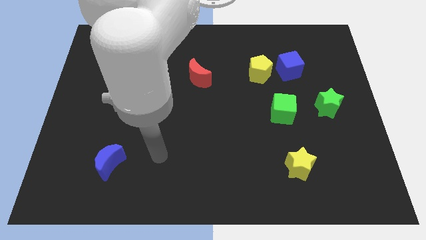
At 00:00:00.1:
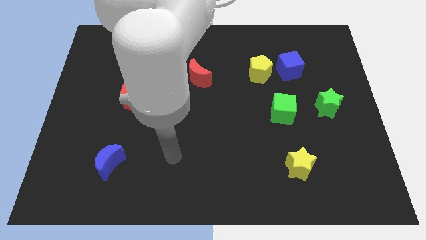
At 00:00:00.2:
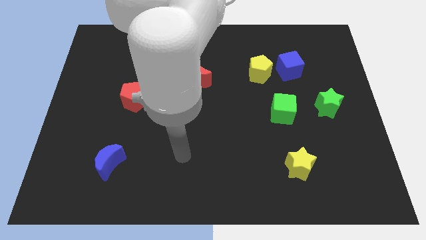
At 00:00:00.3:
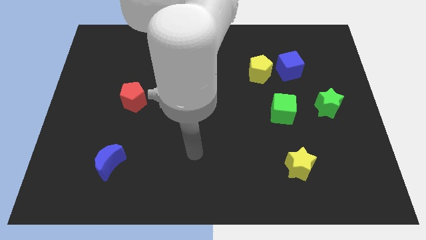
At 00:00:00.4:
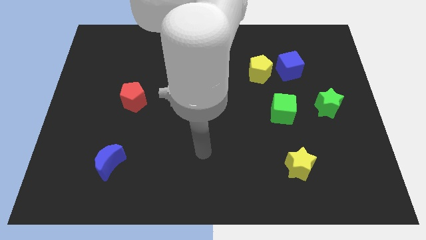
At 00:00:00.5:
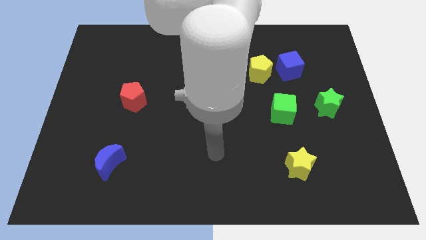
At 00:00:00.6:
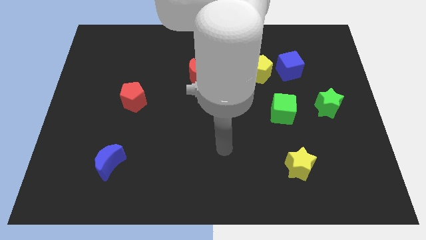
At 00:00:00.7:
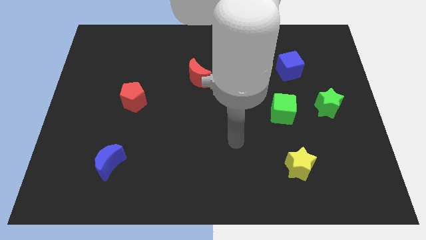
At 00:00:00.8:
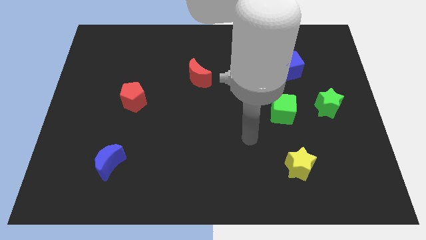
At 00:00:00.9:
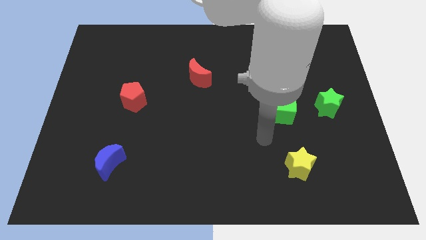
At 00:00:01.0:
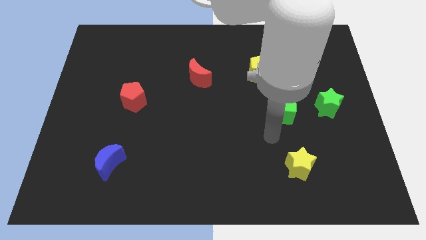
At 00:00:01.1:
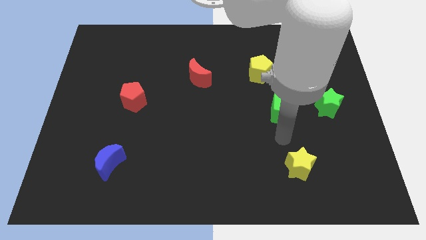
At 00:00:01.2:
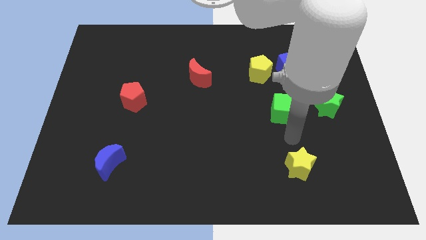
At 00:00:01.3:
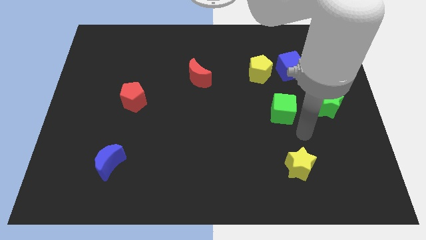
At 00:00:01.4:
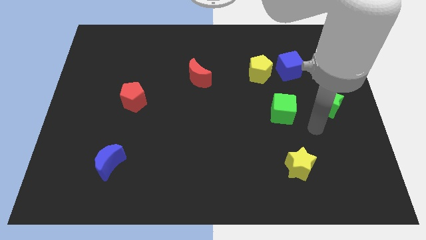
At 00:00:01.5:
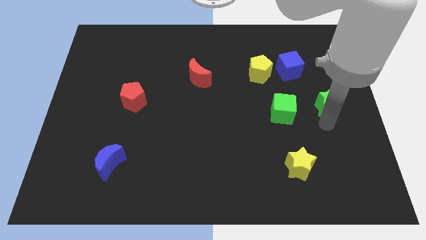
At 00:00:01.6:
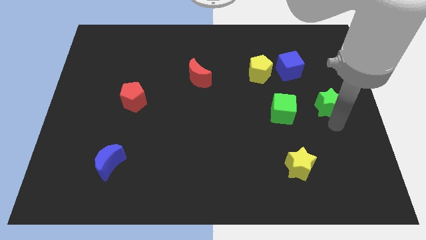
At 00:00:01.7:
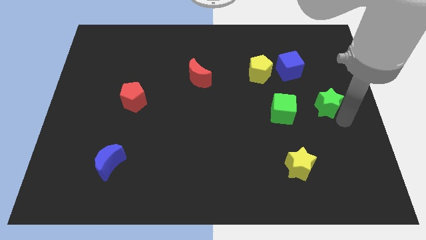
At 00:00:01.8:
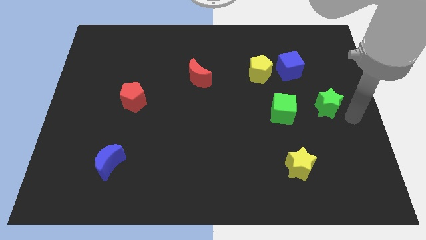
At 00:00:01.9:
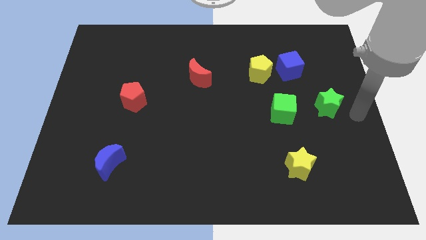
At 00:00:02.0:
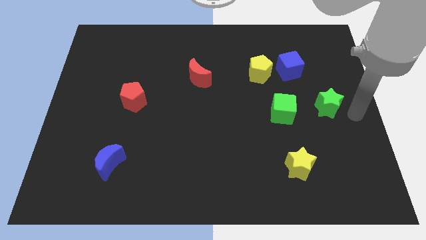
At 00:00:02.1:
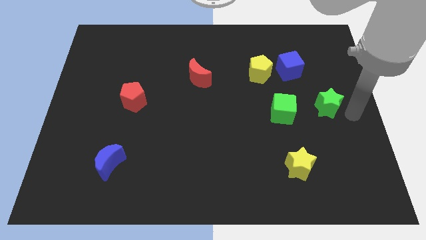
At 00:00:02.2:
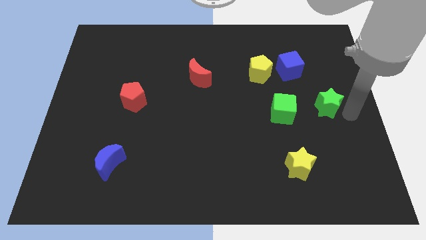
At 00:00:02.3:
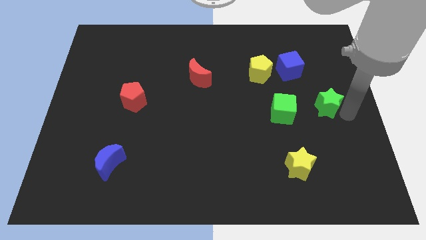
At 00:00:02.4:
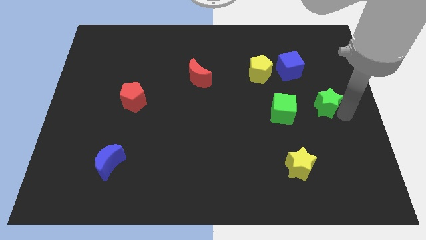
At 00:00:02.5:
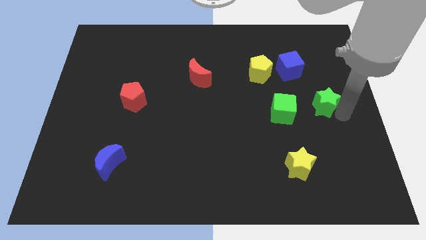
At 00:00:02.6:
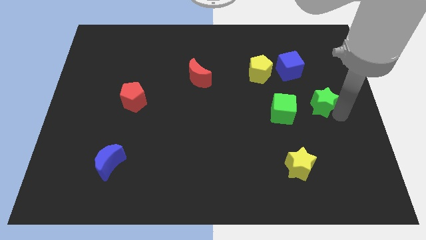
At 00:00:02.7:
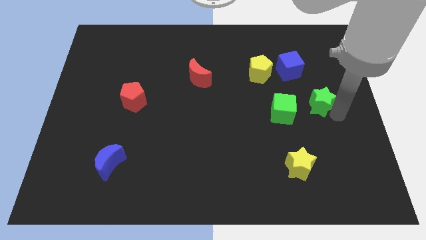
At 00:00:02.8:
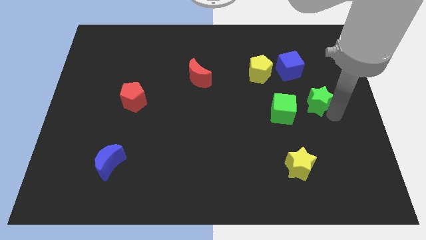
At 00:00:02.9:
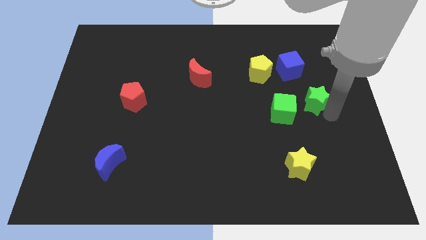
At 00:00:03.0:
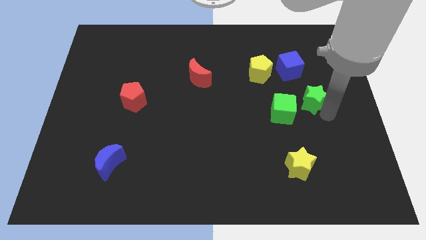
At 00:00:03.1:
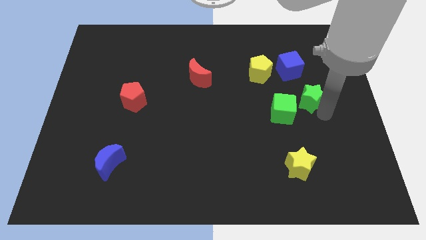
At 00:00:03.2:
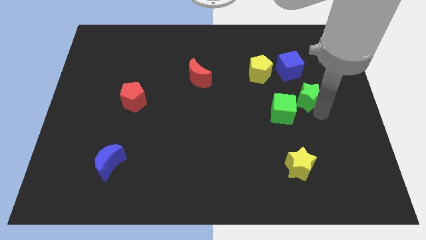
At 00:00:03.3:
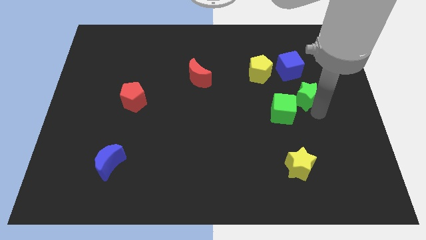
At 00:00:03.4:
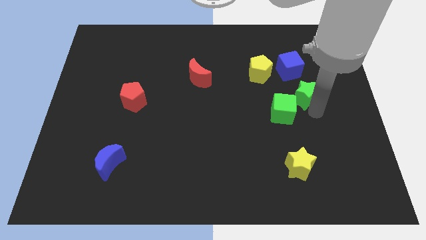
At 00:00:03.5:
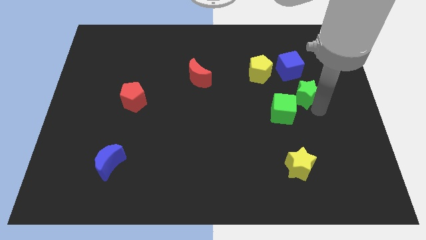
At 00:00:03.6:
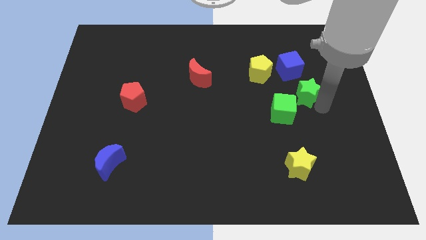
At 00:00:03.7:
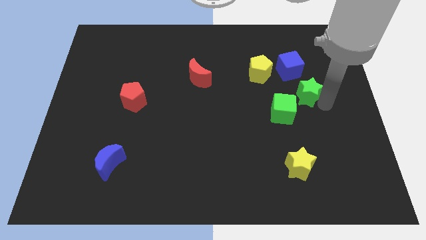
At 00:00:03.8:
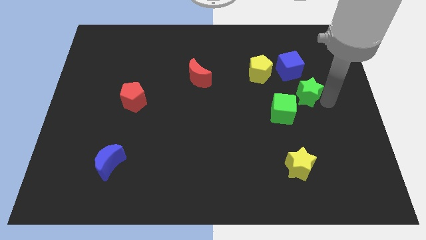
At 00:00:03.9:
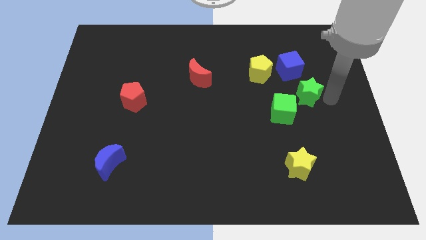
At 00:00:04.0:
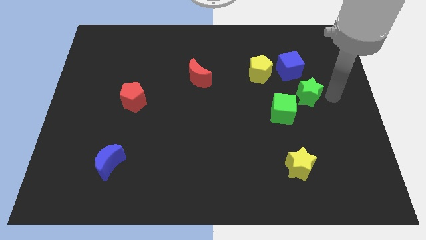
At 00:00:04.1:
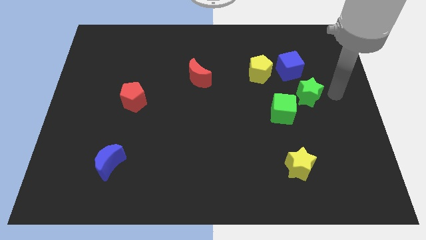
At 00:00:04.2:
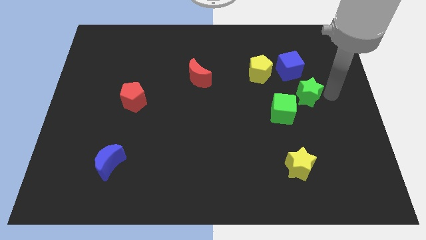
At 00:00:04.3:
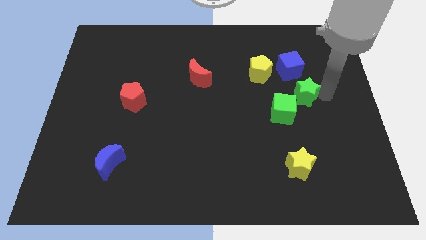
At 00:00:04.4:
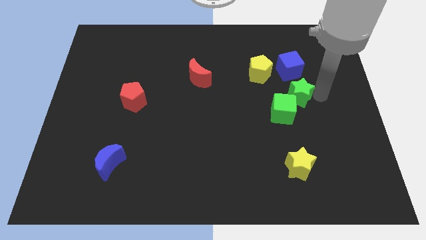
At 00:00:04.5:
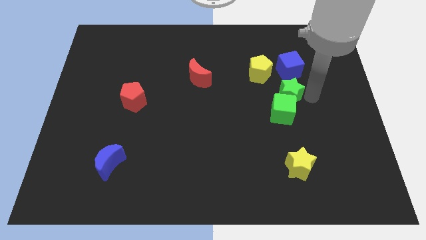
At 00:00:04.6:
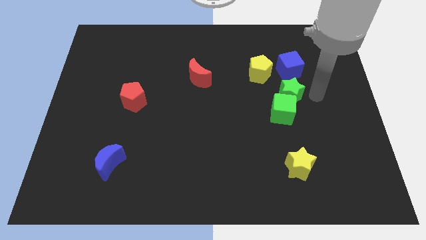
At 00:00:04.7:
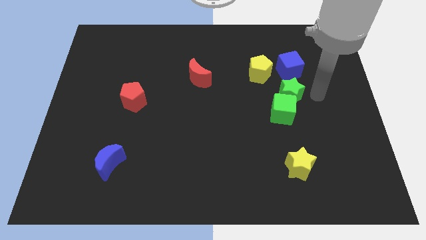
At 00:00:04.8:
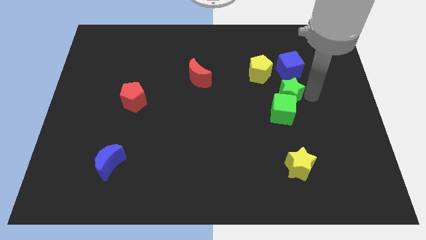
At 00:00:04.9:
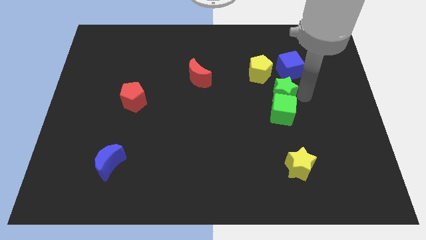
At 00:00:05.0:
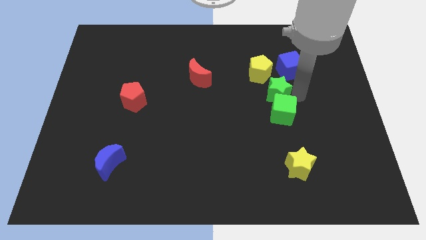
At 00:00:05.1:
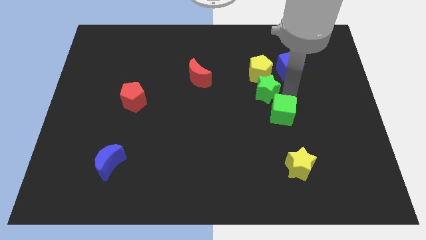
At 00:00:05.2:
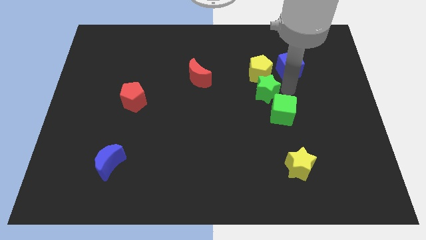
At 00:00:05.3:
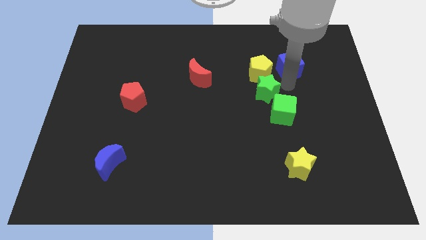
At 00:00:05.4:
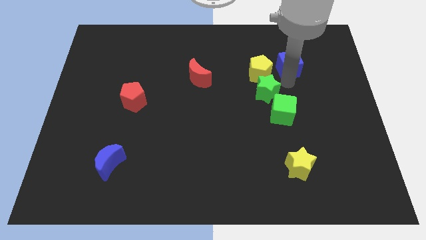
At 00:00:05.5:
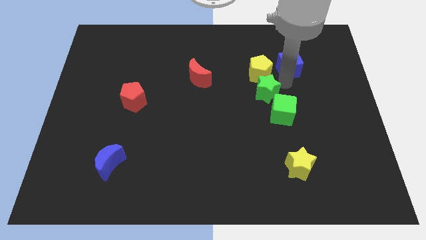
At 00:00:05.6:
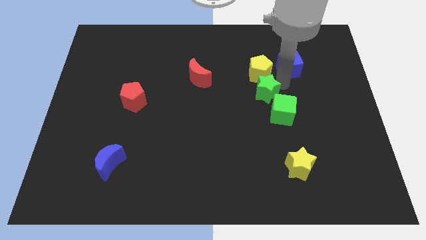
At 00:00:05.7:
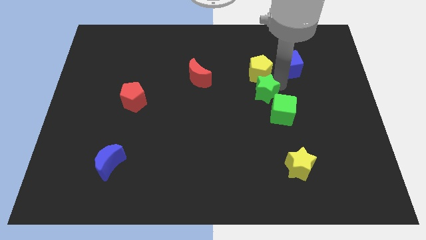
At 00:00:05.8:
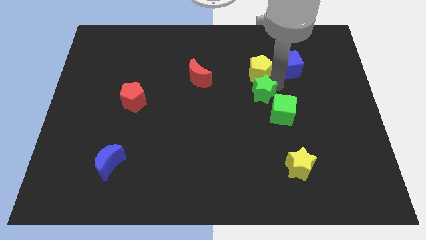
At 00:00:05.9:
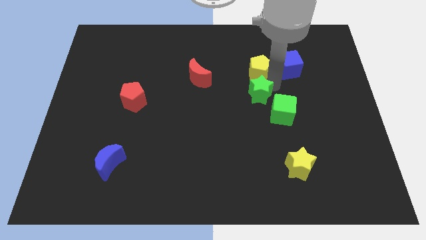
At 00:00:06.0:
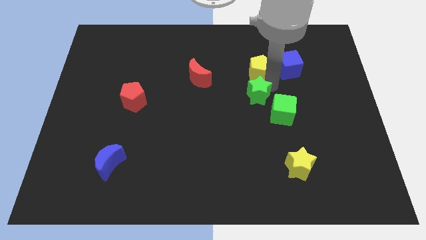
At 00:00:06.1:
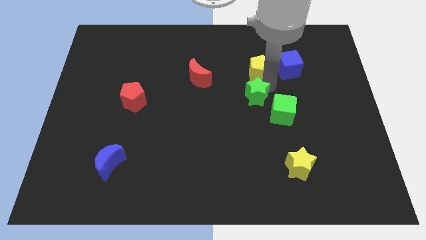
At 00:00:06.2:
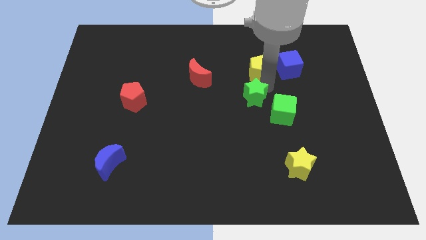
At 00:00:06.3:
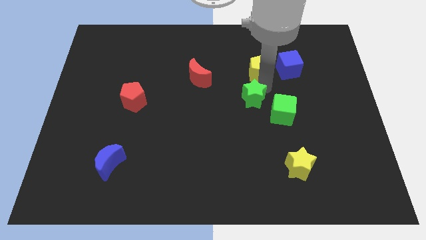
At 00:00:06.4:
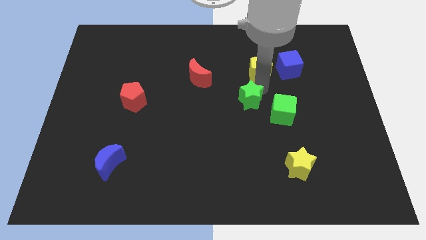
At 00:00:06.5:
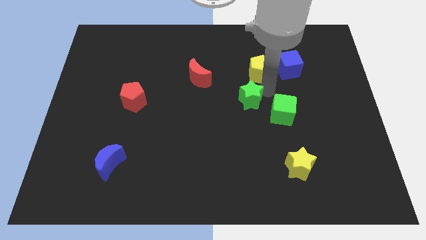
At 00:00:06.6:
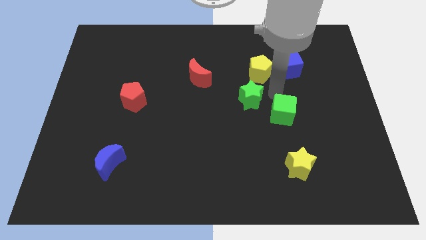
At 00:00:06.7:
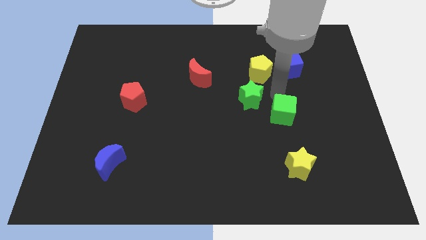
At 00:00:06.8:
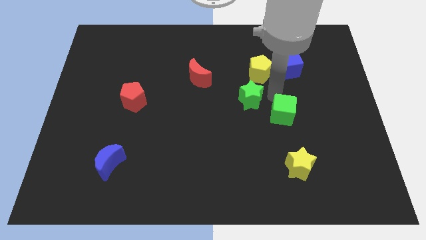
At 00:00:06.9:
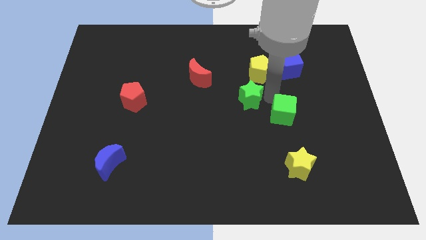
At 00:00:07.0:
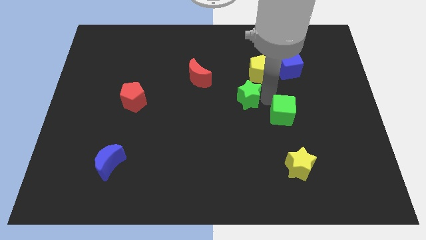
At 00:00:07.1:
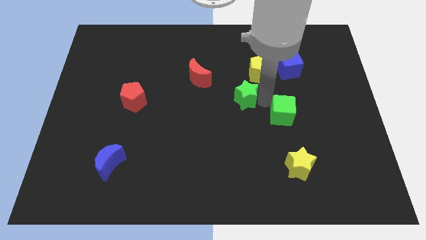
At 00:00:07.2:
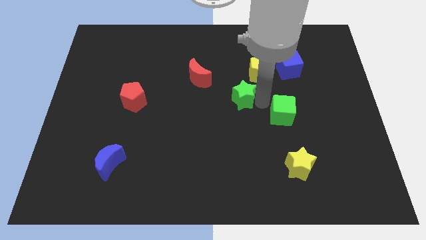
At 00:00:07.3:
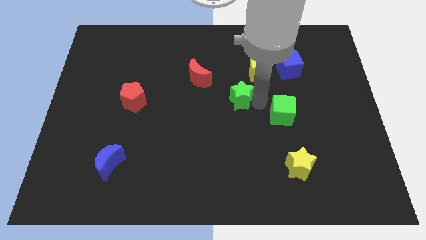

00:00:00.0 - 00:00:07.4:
push the green star to the left

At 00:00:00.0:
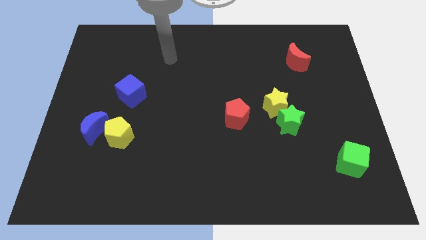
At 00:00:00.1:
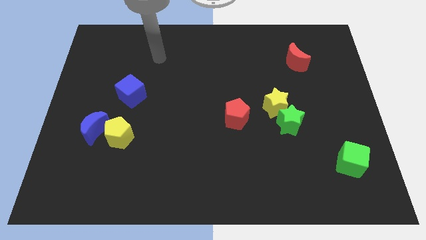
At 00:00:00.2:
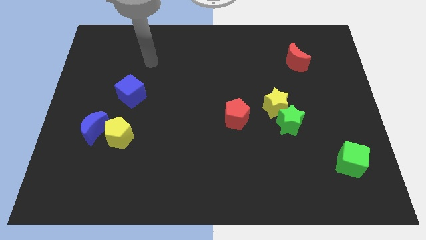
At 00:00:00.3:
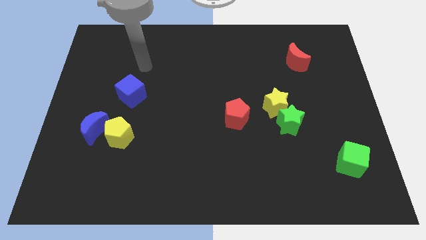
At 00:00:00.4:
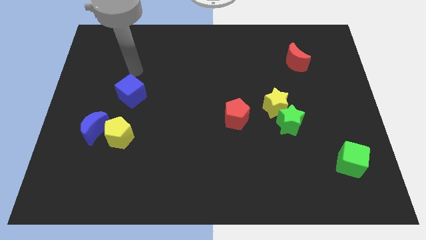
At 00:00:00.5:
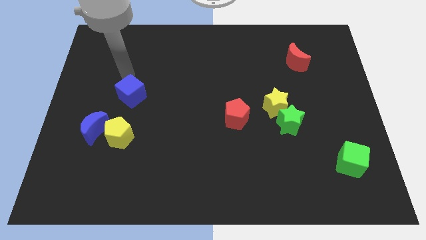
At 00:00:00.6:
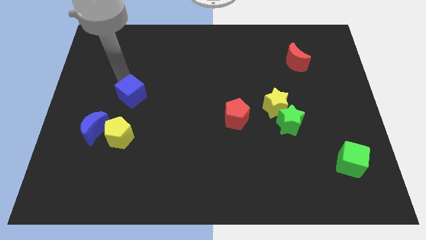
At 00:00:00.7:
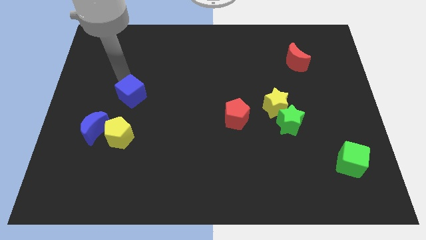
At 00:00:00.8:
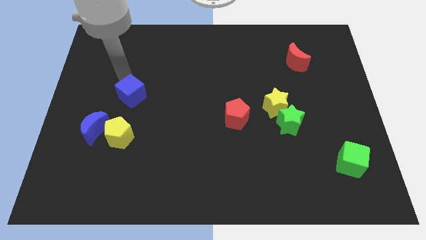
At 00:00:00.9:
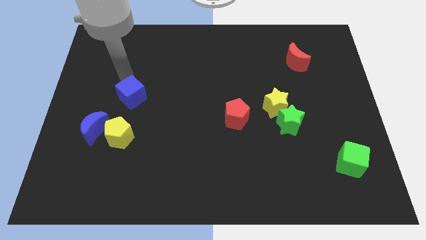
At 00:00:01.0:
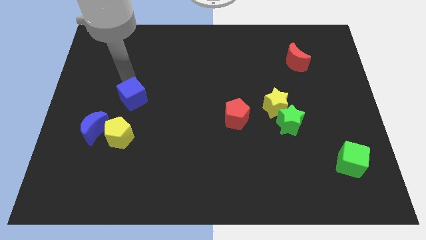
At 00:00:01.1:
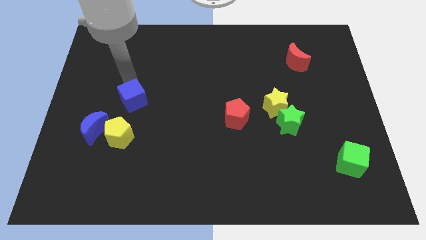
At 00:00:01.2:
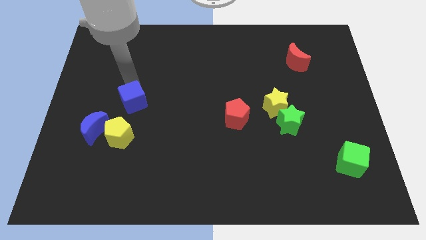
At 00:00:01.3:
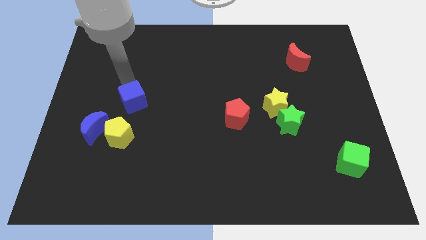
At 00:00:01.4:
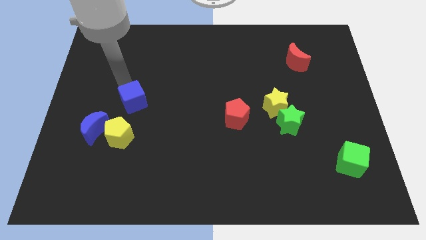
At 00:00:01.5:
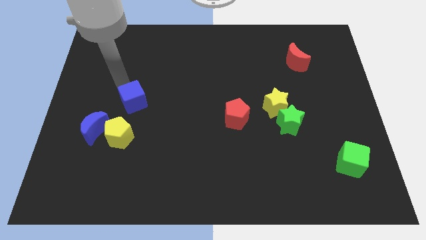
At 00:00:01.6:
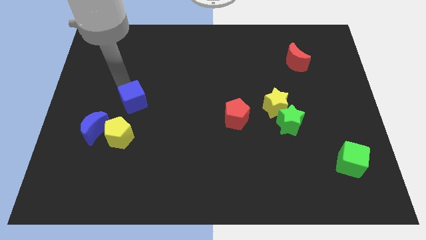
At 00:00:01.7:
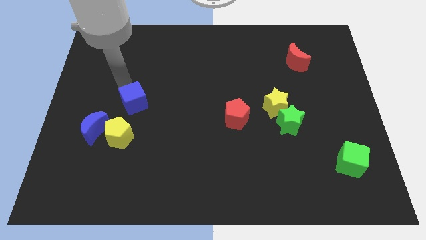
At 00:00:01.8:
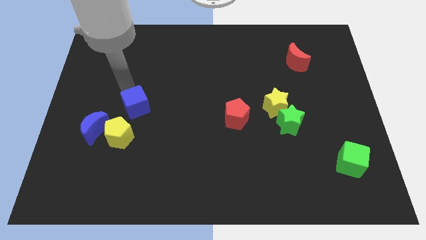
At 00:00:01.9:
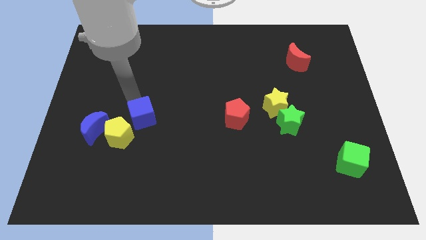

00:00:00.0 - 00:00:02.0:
push the blue cube a little down and to the right diagonally
